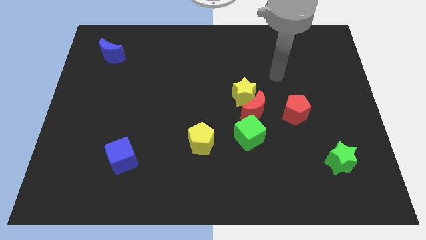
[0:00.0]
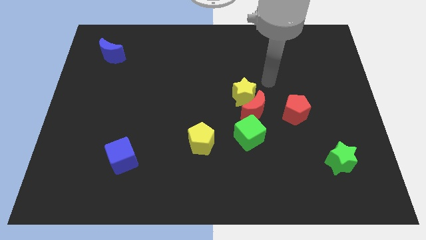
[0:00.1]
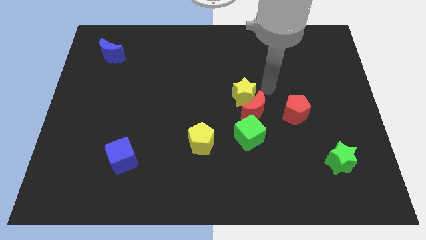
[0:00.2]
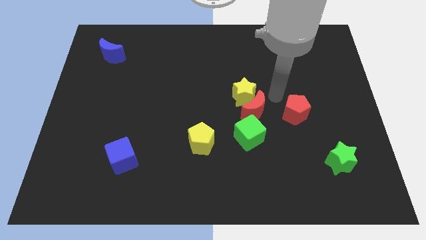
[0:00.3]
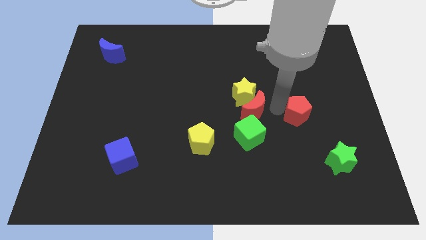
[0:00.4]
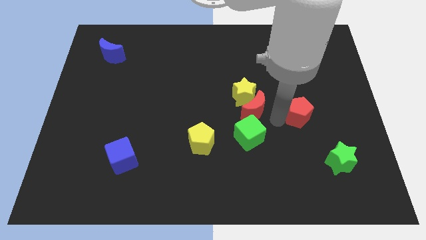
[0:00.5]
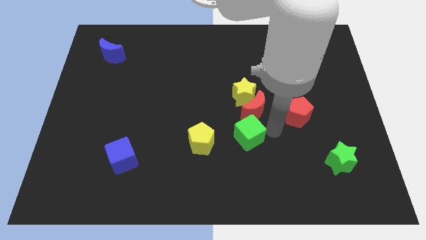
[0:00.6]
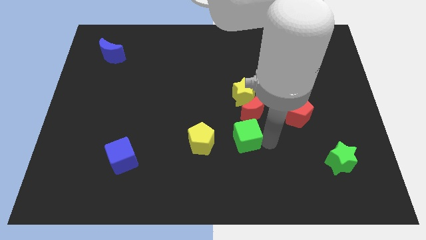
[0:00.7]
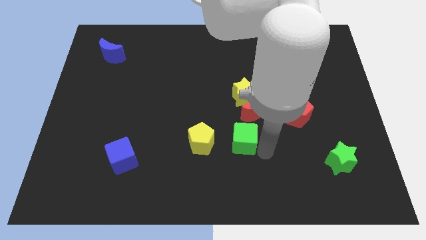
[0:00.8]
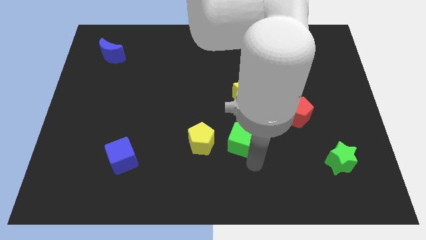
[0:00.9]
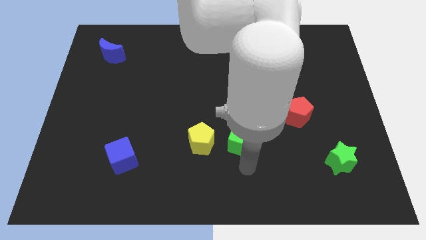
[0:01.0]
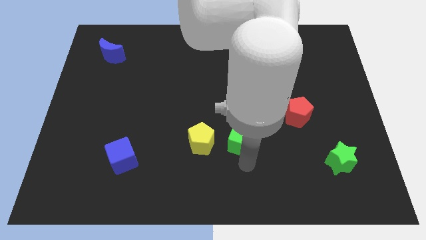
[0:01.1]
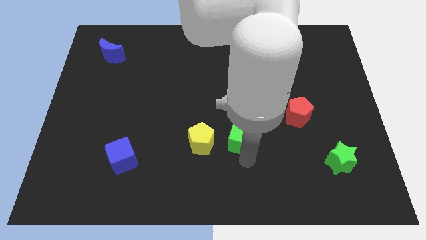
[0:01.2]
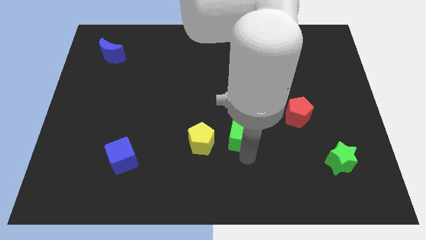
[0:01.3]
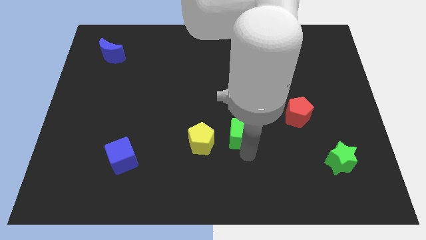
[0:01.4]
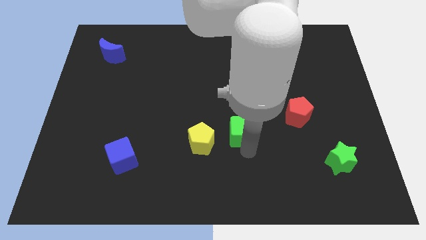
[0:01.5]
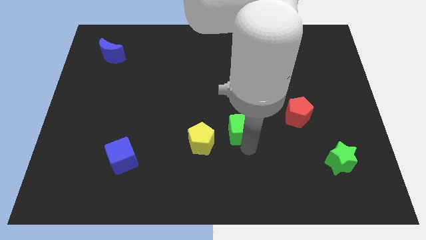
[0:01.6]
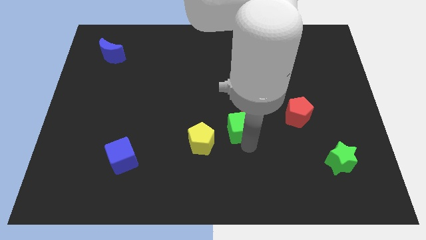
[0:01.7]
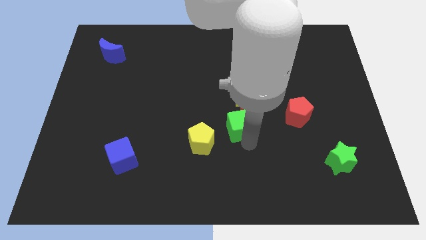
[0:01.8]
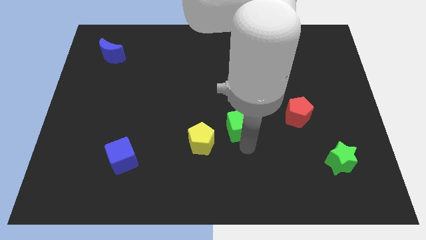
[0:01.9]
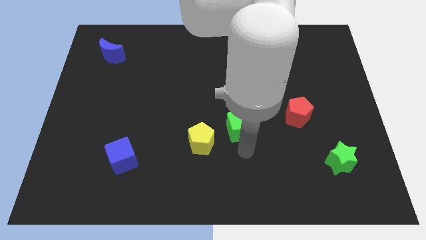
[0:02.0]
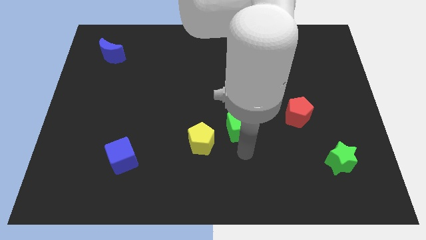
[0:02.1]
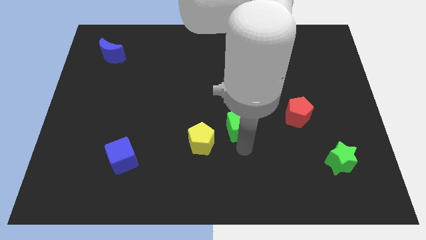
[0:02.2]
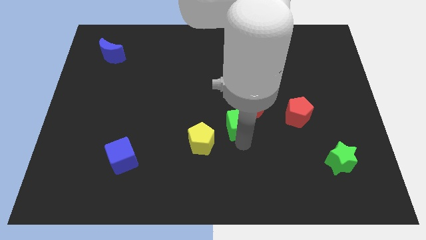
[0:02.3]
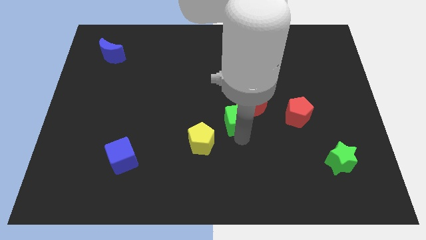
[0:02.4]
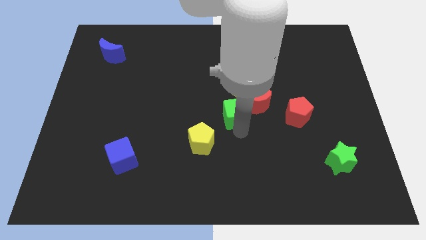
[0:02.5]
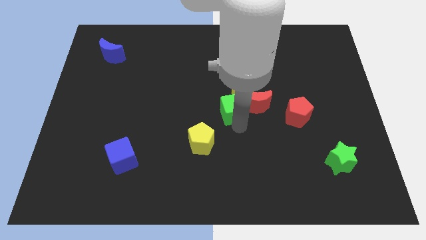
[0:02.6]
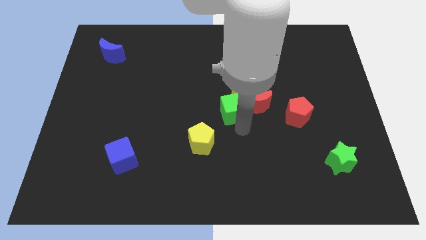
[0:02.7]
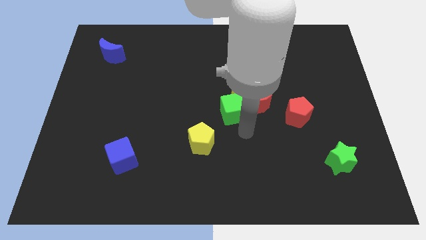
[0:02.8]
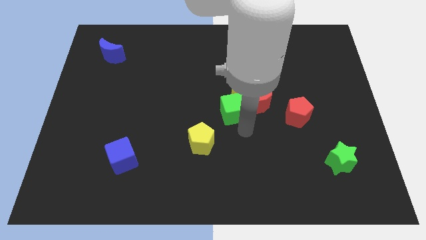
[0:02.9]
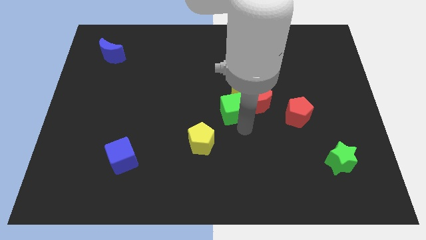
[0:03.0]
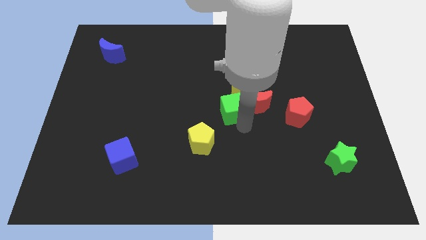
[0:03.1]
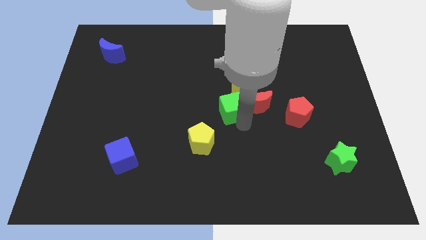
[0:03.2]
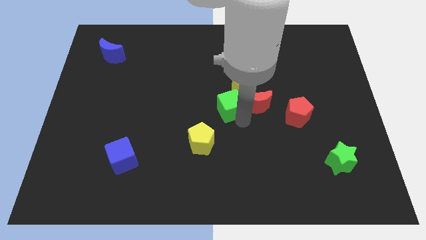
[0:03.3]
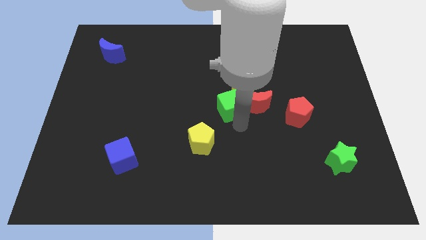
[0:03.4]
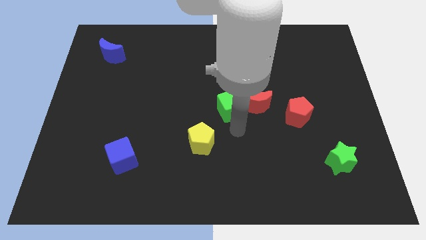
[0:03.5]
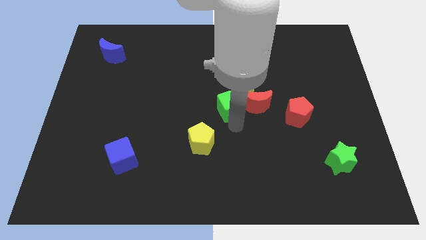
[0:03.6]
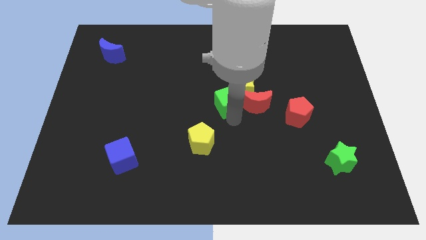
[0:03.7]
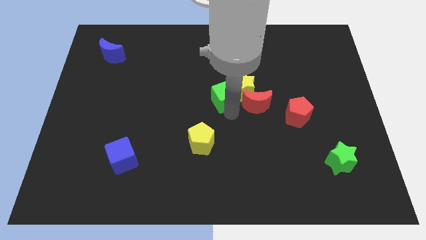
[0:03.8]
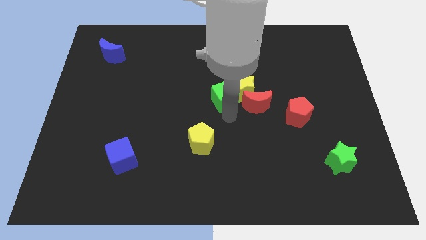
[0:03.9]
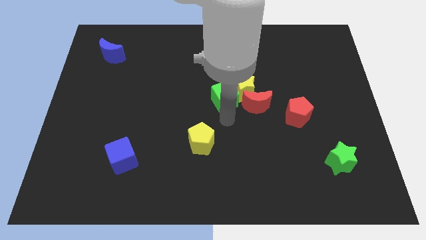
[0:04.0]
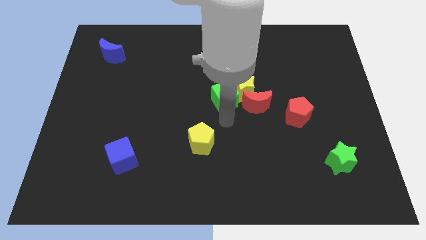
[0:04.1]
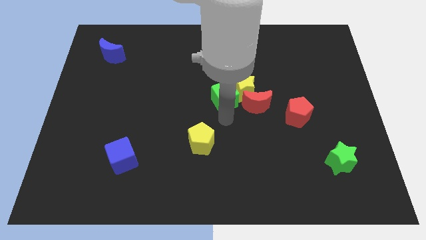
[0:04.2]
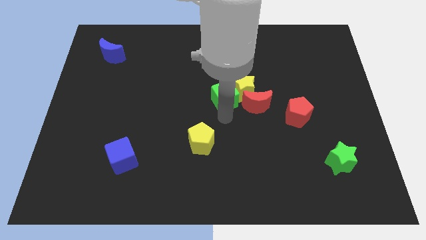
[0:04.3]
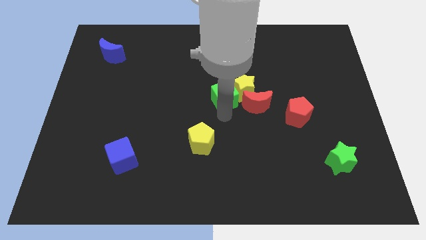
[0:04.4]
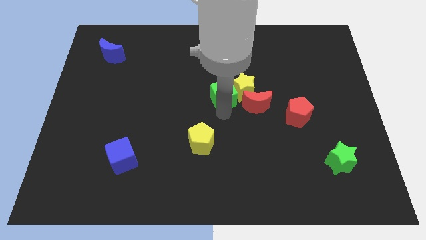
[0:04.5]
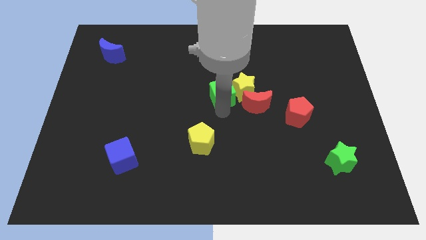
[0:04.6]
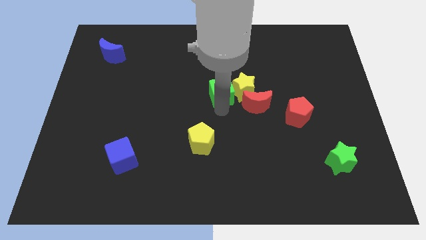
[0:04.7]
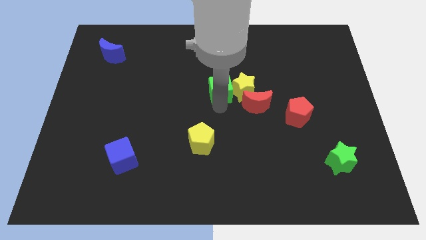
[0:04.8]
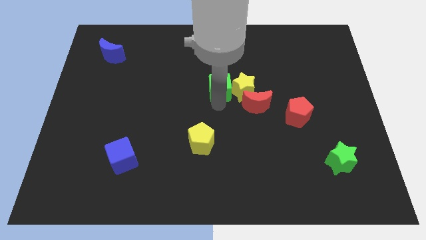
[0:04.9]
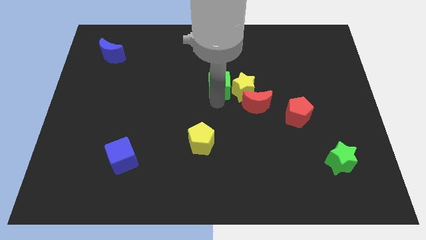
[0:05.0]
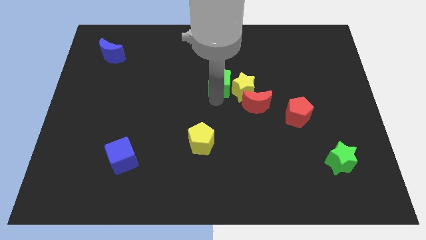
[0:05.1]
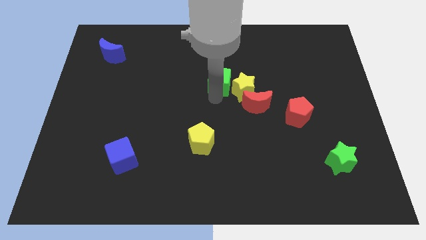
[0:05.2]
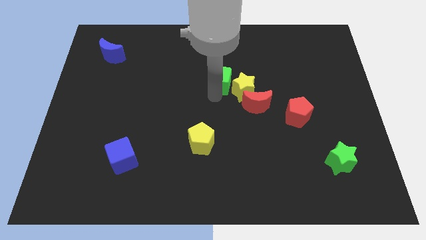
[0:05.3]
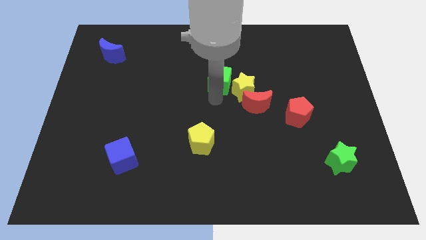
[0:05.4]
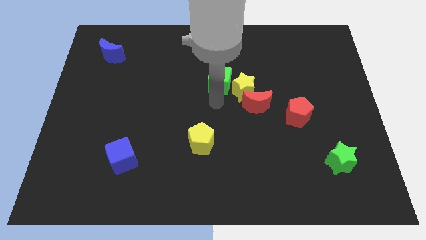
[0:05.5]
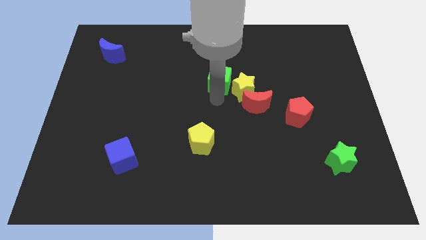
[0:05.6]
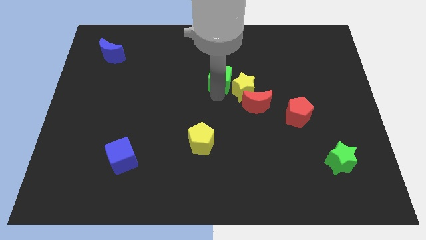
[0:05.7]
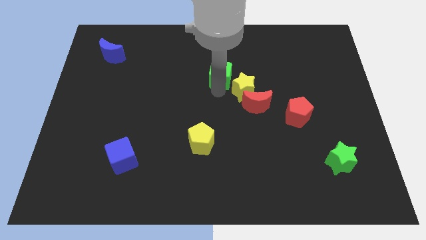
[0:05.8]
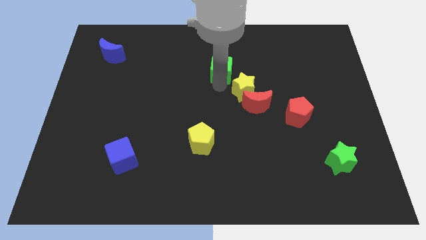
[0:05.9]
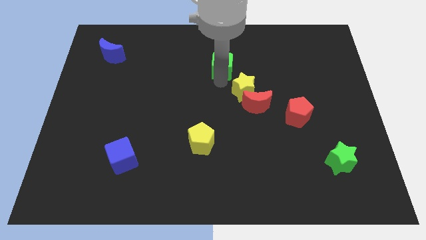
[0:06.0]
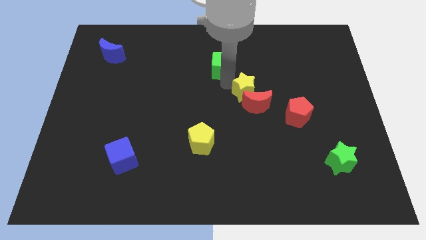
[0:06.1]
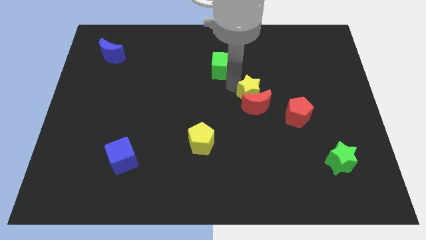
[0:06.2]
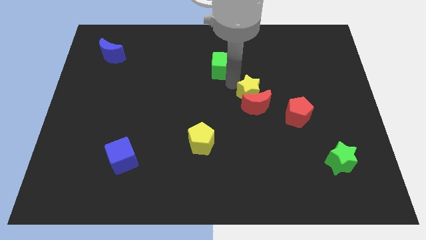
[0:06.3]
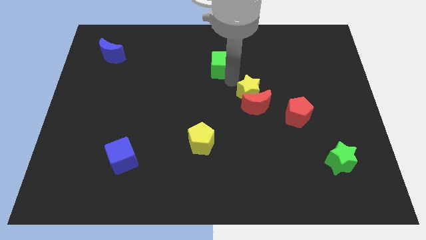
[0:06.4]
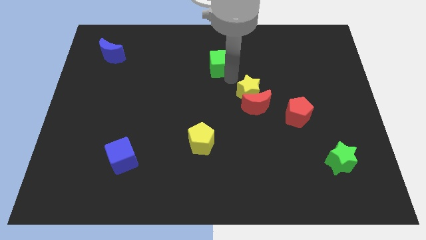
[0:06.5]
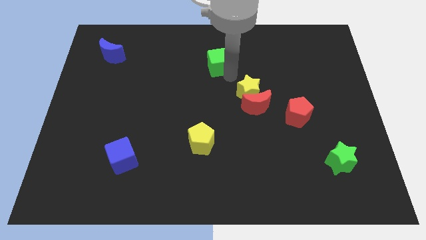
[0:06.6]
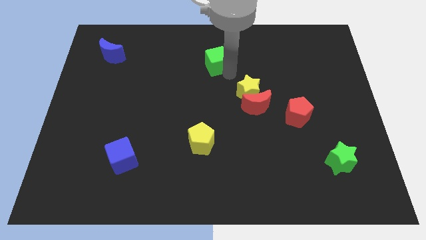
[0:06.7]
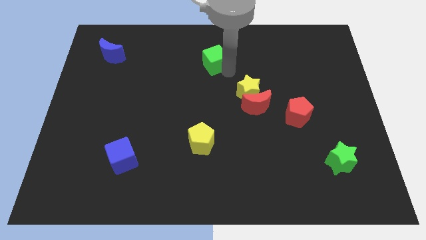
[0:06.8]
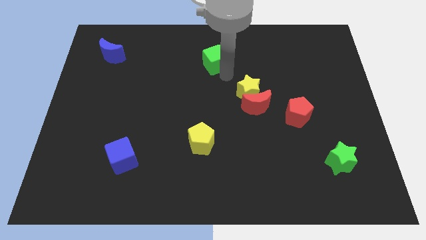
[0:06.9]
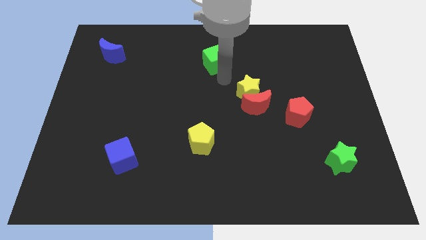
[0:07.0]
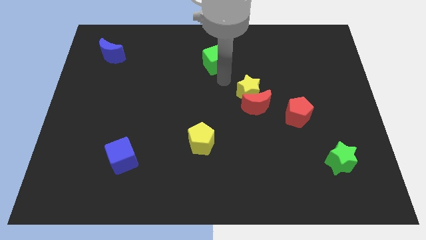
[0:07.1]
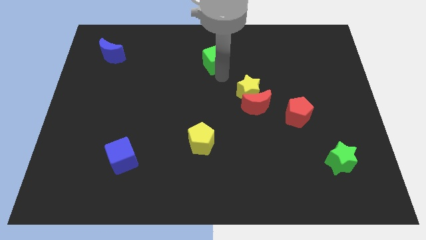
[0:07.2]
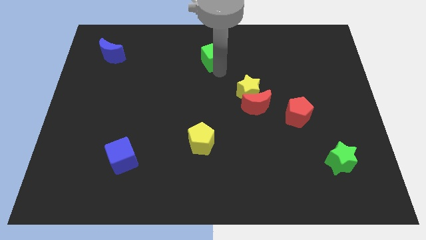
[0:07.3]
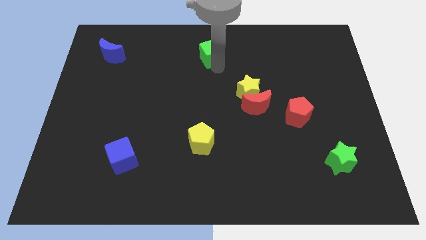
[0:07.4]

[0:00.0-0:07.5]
put the green cube to the top
